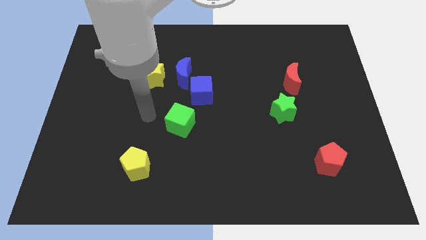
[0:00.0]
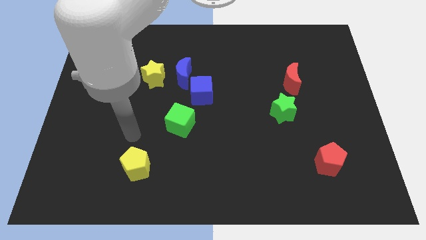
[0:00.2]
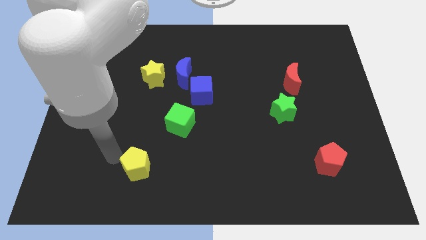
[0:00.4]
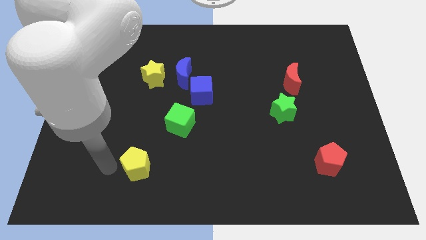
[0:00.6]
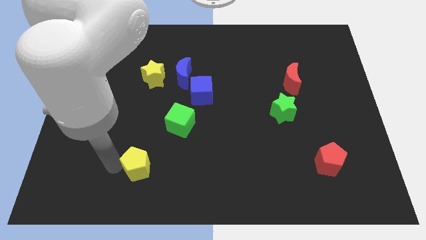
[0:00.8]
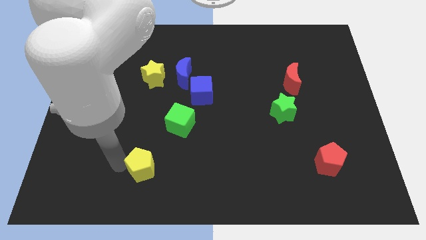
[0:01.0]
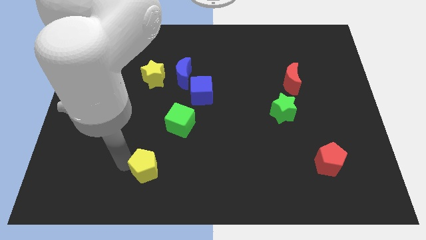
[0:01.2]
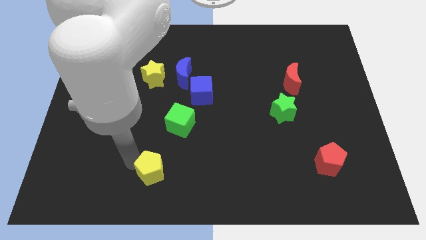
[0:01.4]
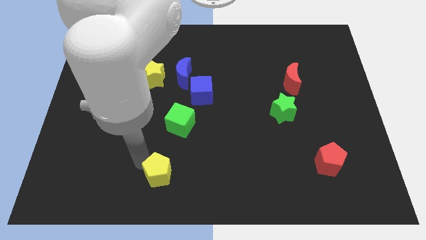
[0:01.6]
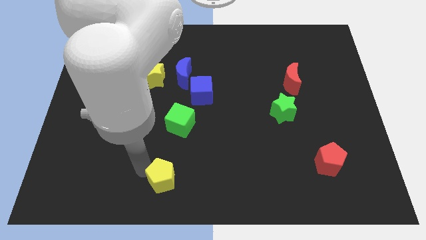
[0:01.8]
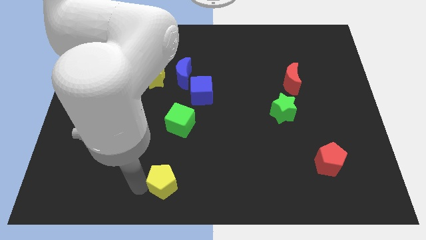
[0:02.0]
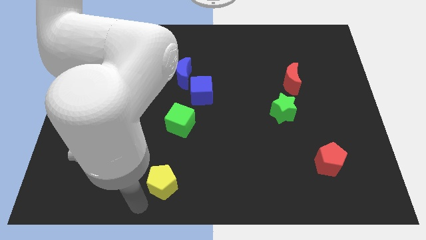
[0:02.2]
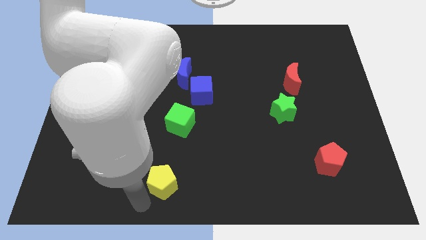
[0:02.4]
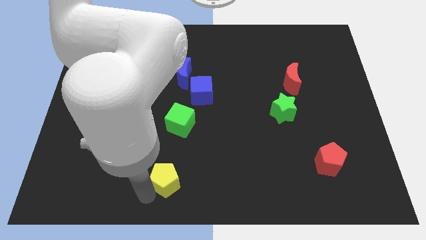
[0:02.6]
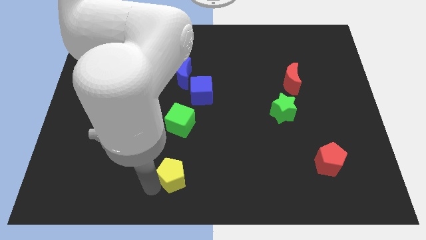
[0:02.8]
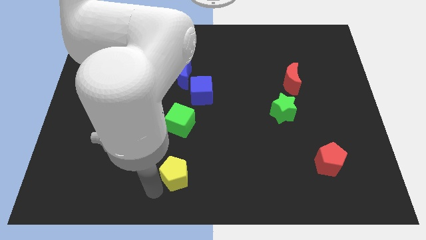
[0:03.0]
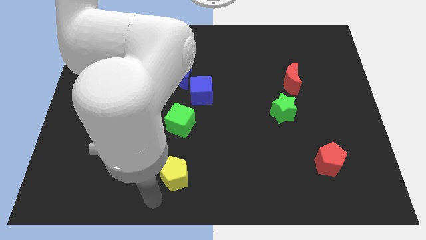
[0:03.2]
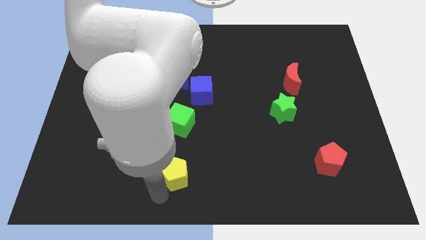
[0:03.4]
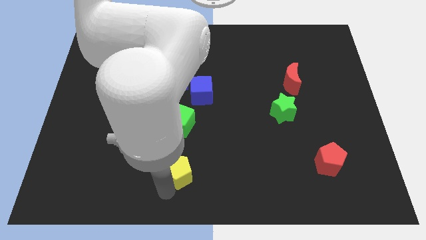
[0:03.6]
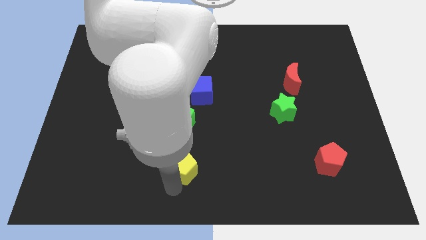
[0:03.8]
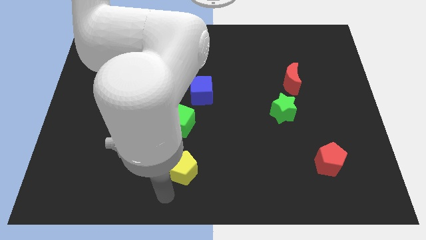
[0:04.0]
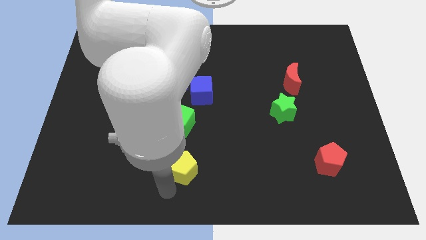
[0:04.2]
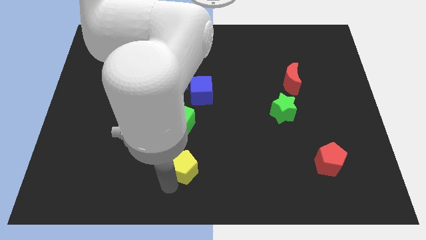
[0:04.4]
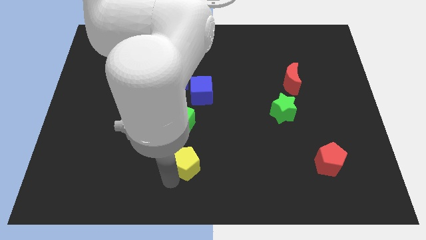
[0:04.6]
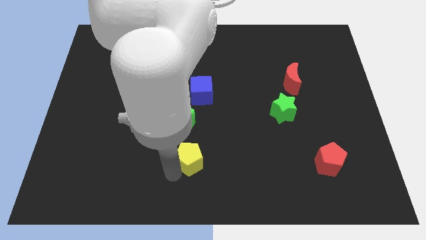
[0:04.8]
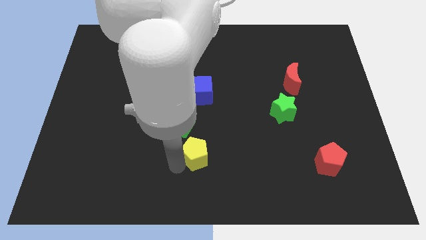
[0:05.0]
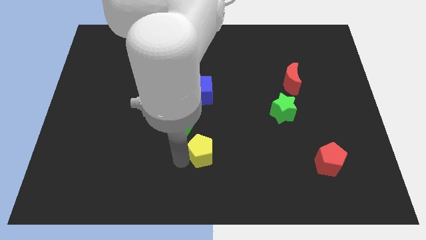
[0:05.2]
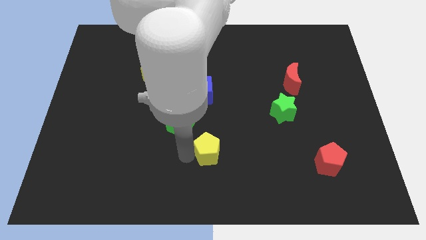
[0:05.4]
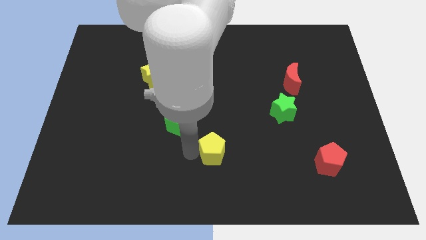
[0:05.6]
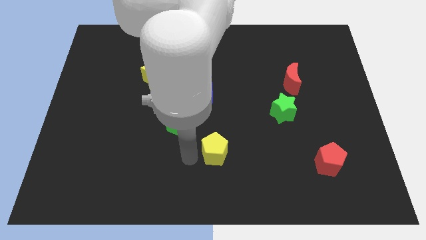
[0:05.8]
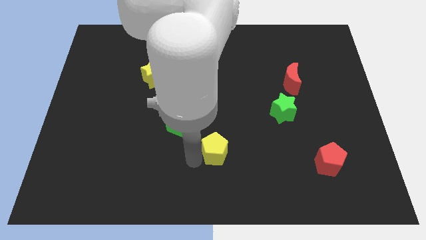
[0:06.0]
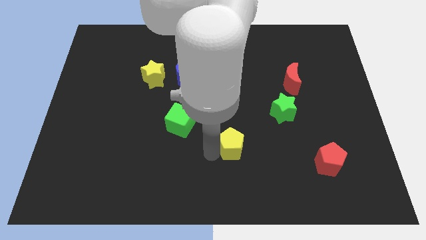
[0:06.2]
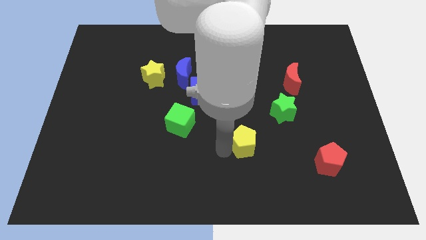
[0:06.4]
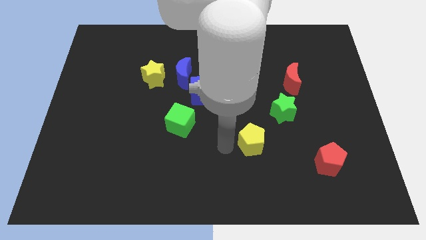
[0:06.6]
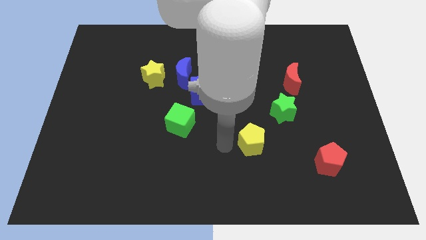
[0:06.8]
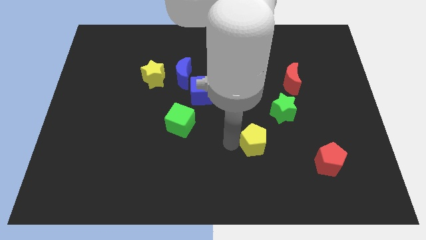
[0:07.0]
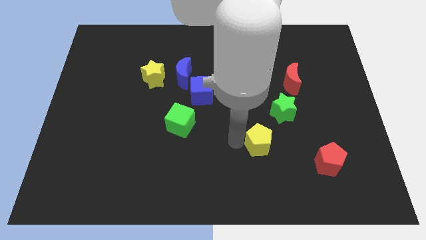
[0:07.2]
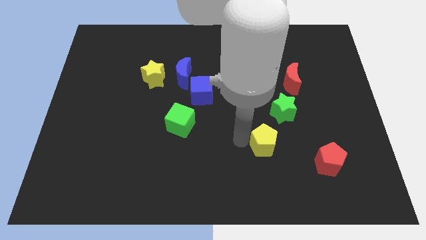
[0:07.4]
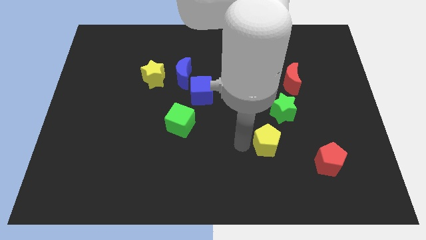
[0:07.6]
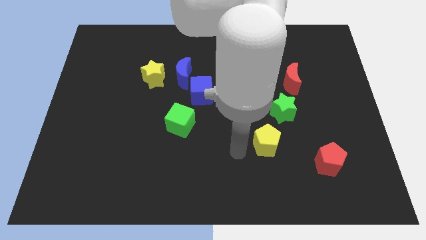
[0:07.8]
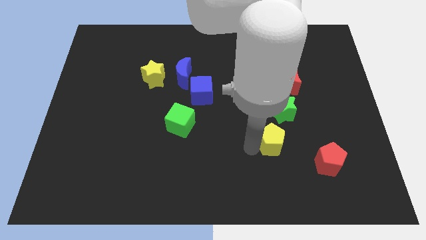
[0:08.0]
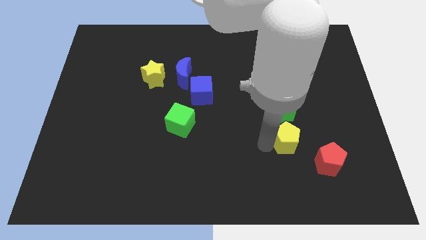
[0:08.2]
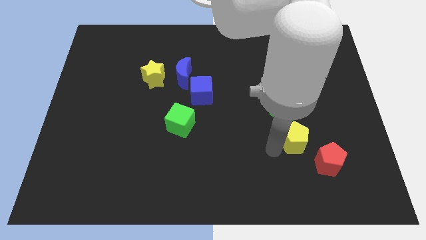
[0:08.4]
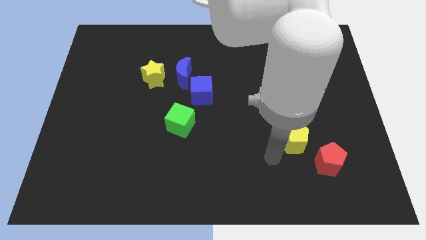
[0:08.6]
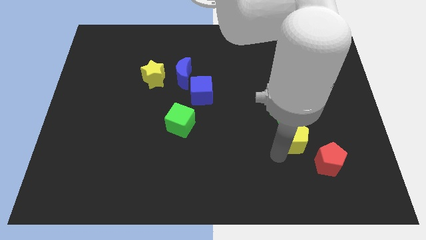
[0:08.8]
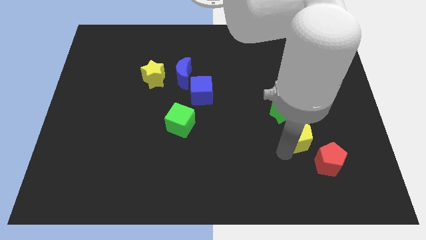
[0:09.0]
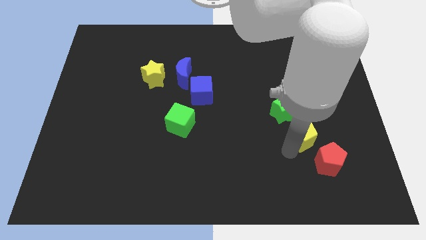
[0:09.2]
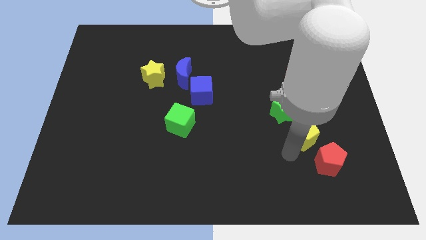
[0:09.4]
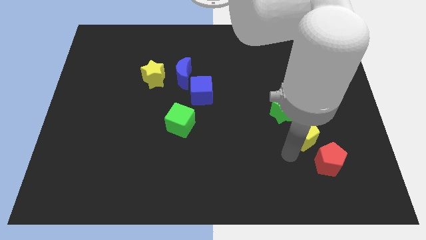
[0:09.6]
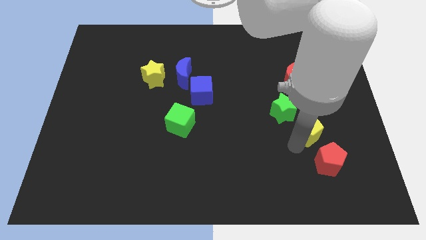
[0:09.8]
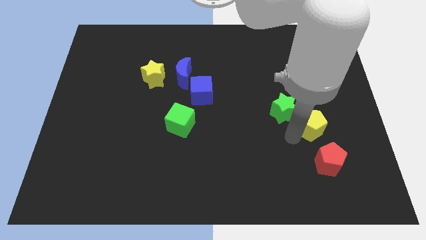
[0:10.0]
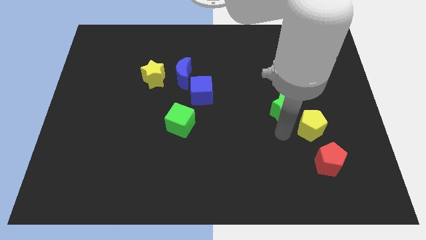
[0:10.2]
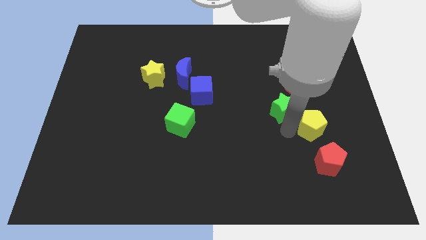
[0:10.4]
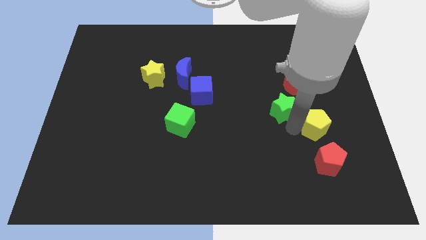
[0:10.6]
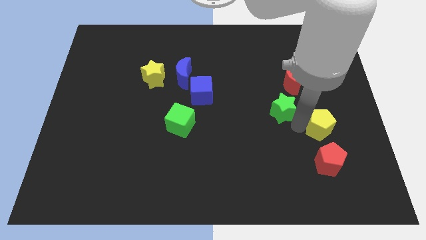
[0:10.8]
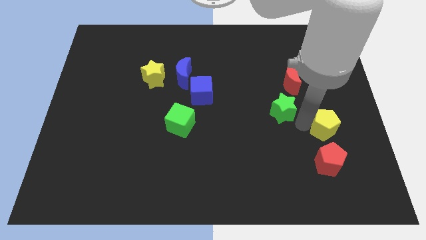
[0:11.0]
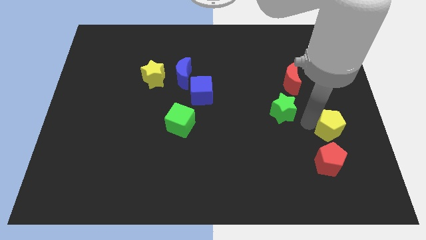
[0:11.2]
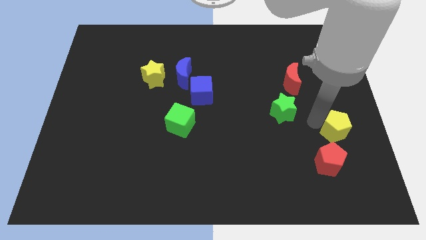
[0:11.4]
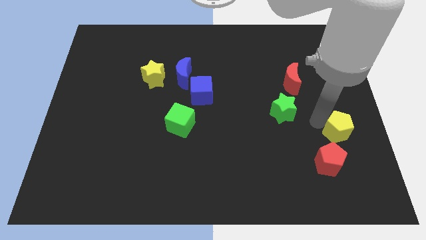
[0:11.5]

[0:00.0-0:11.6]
push the yellow pentagon to the right side
